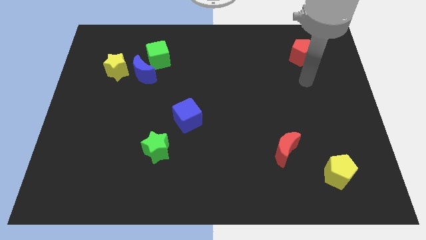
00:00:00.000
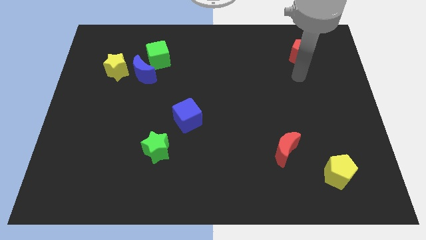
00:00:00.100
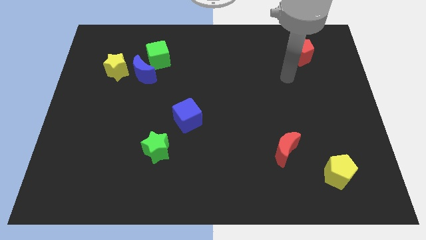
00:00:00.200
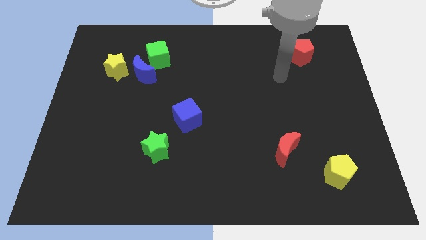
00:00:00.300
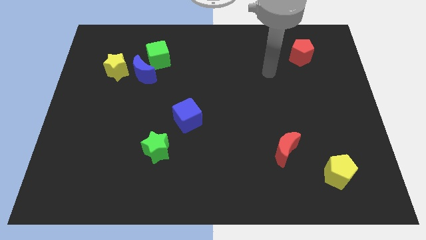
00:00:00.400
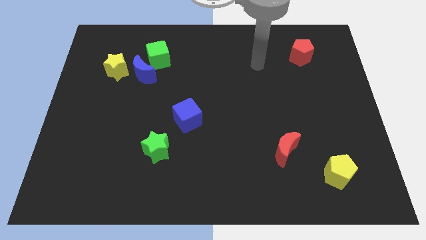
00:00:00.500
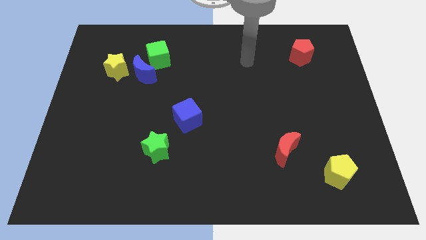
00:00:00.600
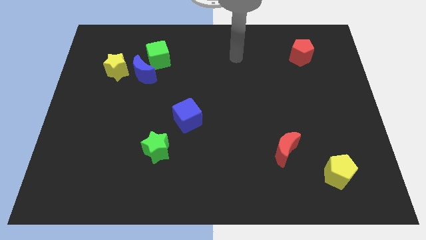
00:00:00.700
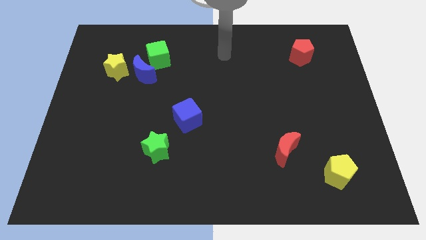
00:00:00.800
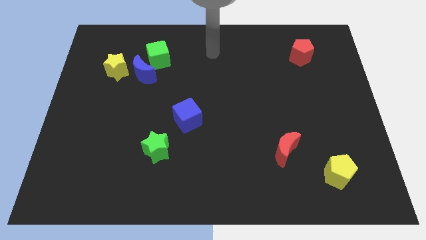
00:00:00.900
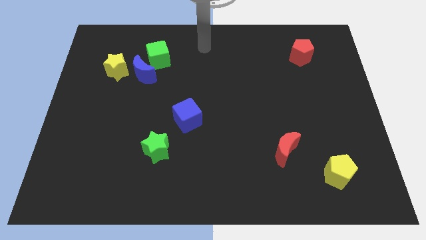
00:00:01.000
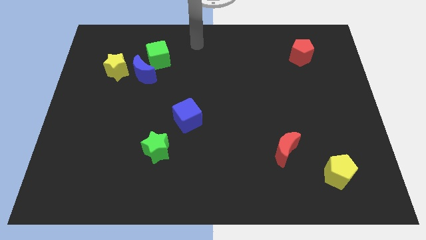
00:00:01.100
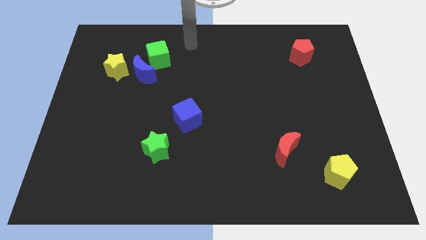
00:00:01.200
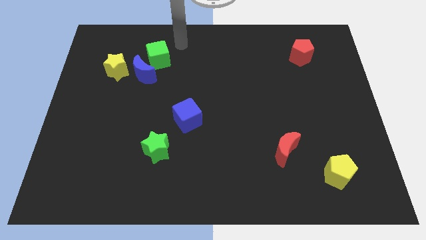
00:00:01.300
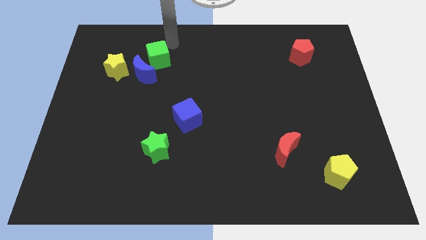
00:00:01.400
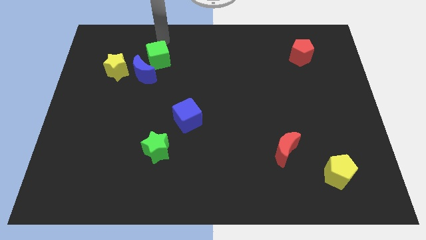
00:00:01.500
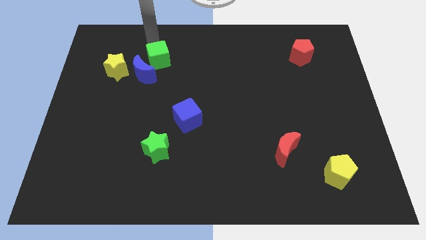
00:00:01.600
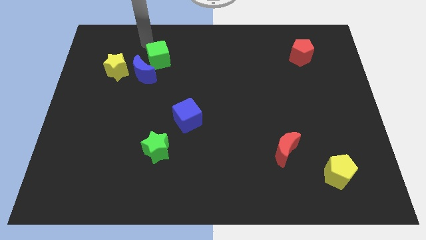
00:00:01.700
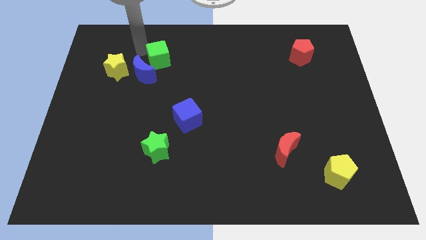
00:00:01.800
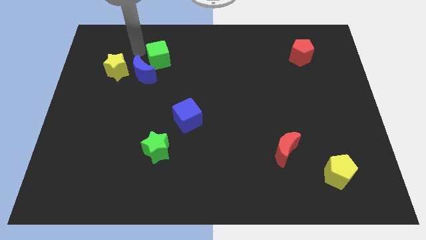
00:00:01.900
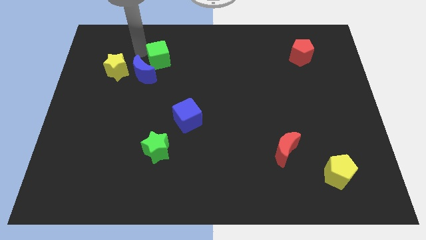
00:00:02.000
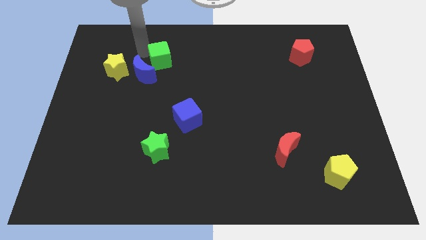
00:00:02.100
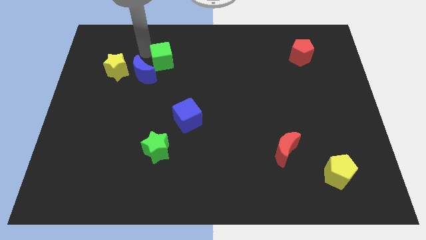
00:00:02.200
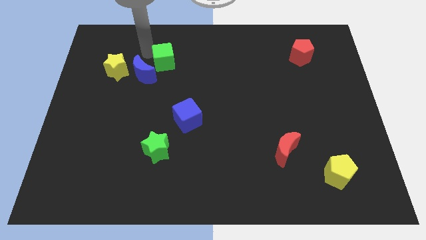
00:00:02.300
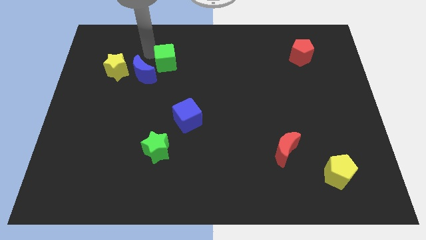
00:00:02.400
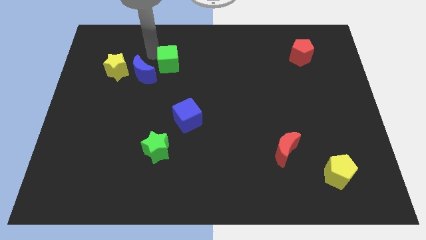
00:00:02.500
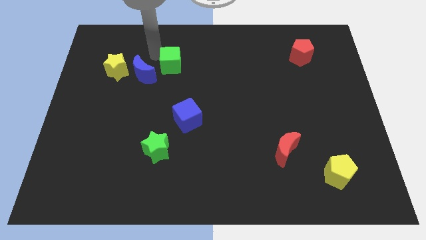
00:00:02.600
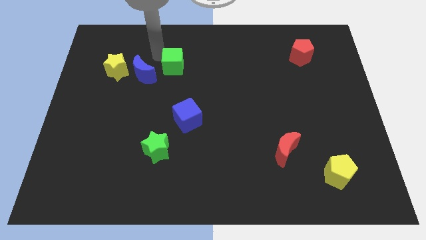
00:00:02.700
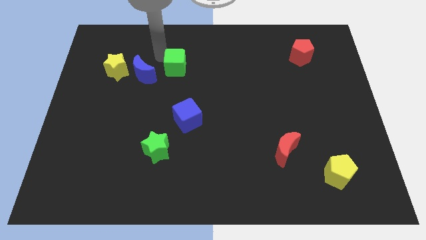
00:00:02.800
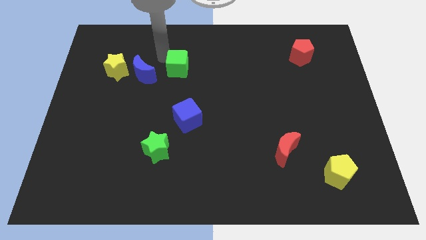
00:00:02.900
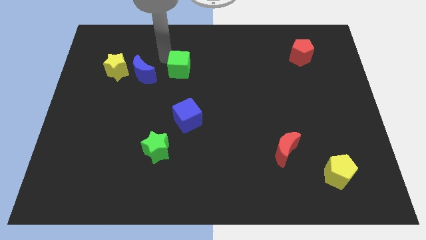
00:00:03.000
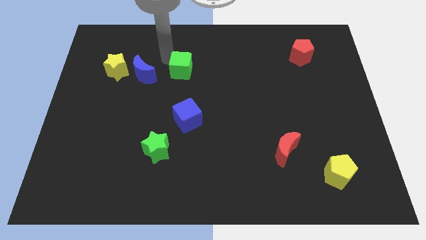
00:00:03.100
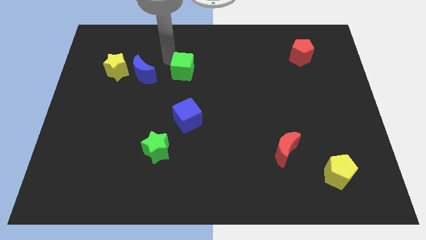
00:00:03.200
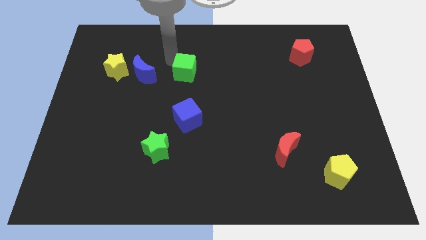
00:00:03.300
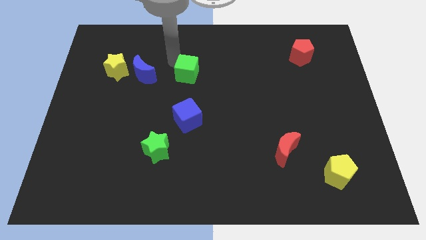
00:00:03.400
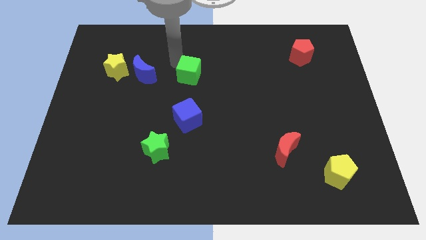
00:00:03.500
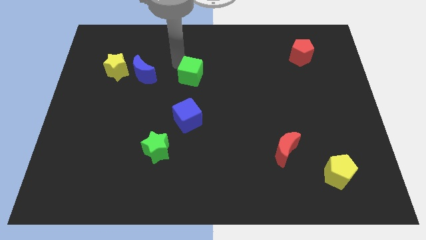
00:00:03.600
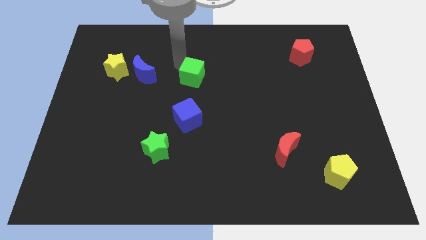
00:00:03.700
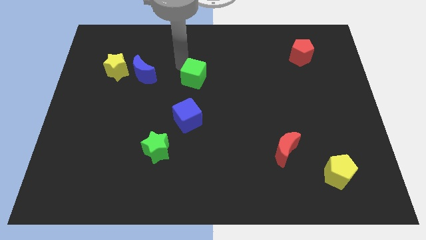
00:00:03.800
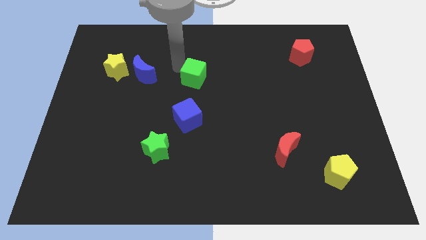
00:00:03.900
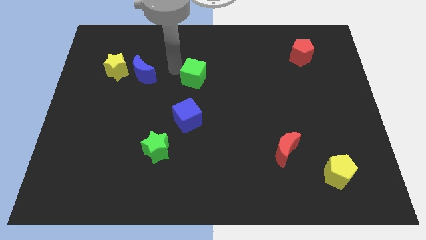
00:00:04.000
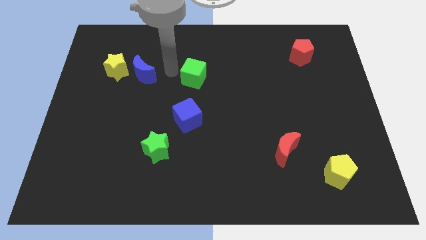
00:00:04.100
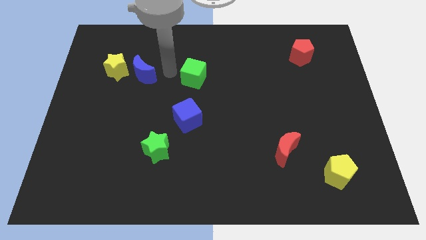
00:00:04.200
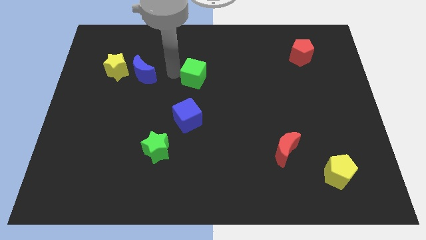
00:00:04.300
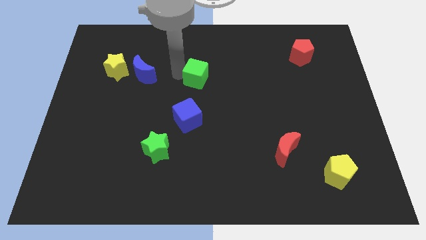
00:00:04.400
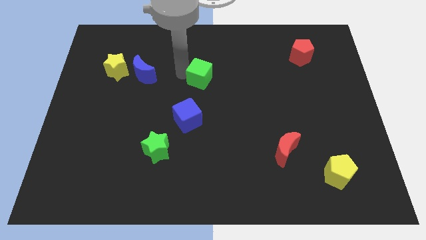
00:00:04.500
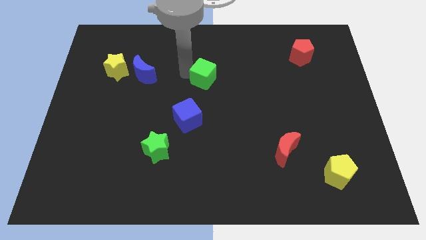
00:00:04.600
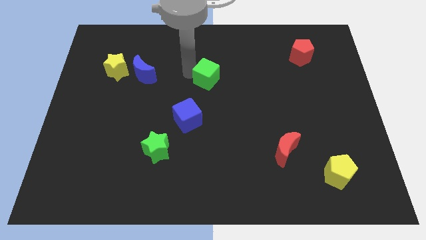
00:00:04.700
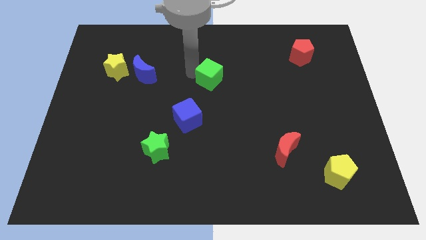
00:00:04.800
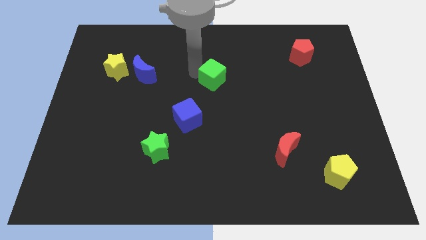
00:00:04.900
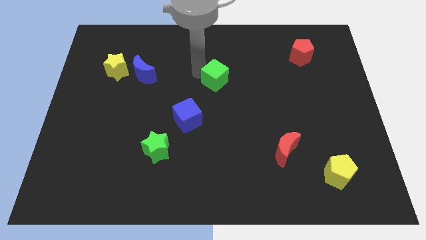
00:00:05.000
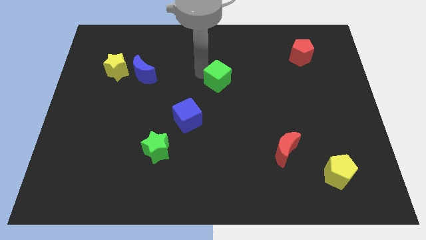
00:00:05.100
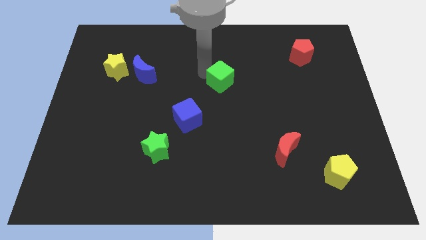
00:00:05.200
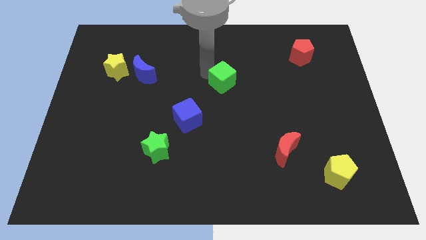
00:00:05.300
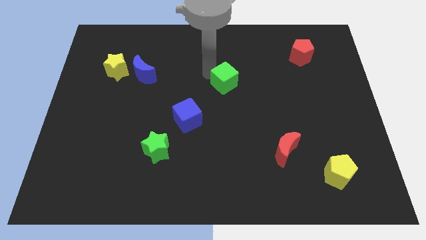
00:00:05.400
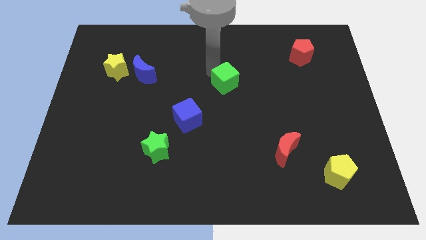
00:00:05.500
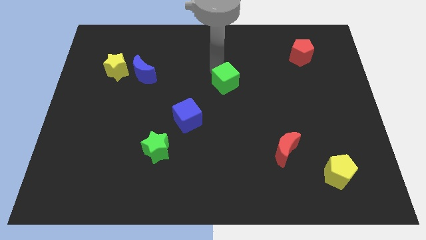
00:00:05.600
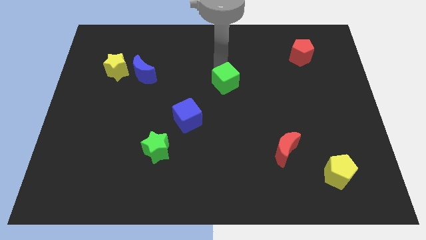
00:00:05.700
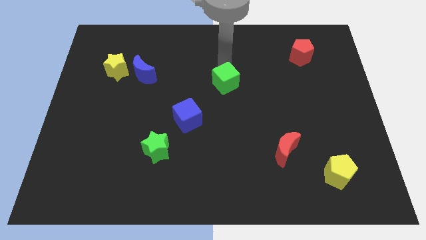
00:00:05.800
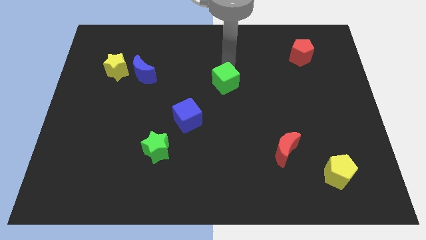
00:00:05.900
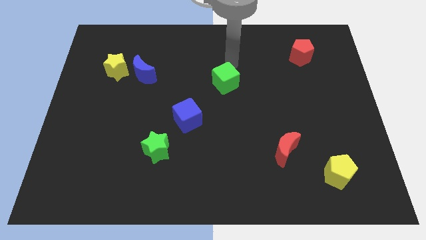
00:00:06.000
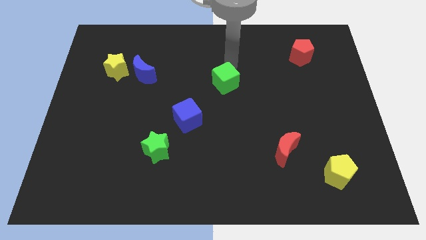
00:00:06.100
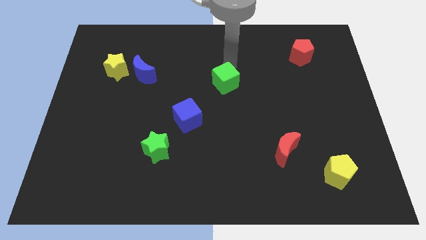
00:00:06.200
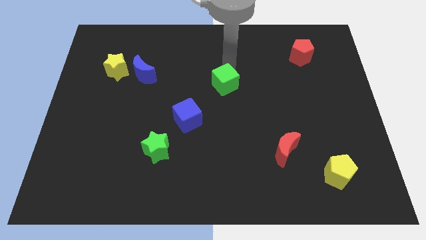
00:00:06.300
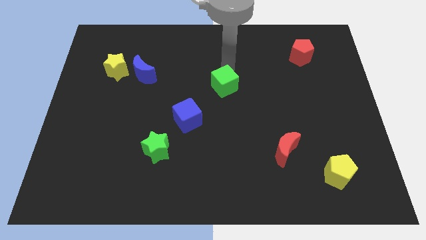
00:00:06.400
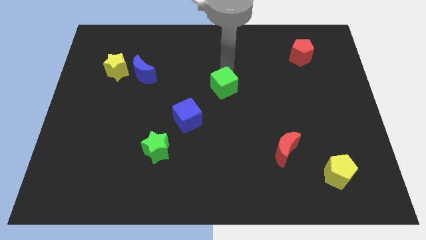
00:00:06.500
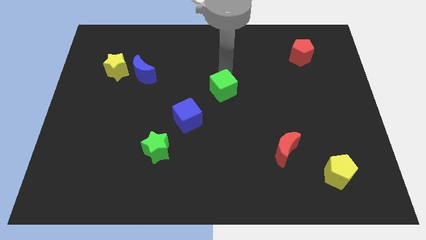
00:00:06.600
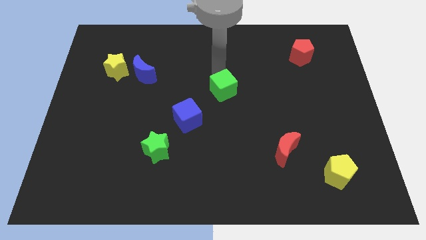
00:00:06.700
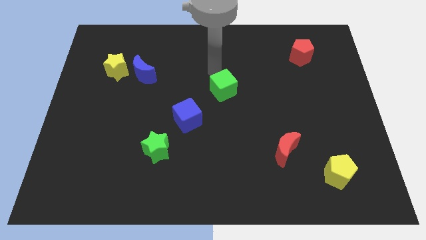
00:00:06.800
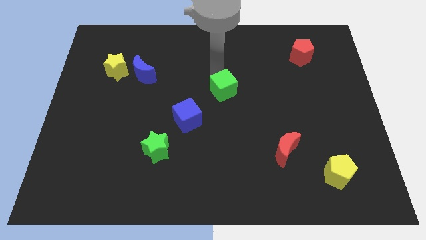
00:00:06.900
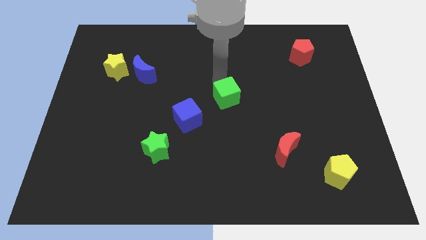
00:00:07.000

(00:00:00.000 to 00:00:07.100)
move the green cube downwards and right diagonally

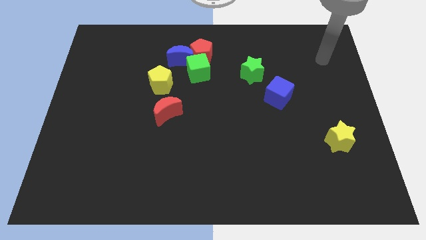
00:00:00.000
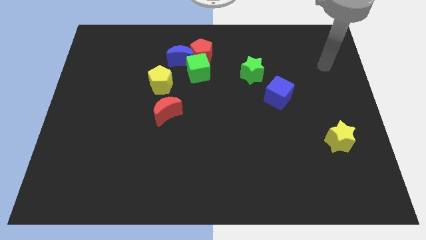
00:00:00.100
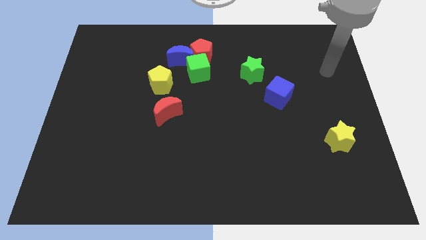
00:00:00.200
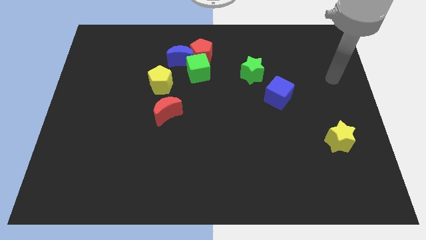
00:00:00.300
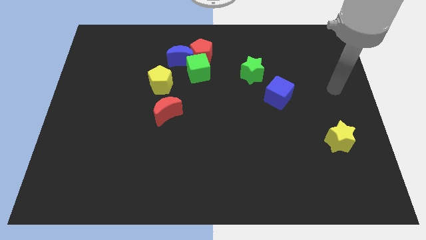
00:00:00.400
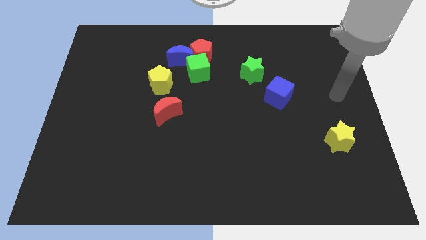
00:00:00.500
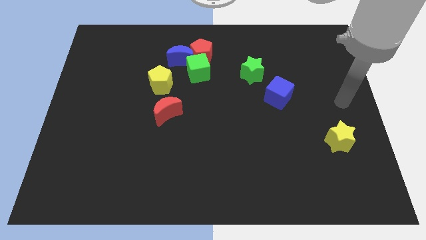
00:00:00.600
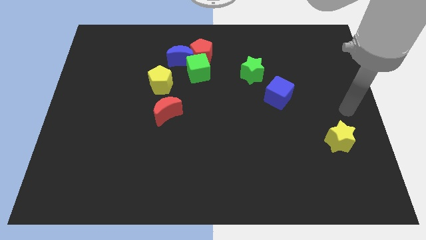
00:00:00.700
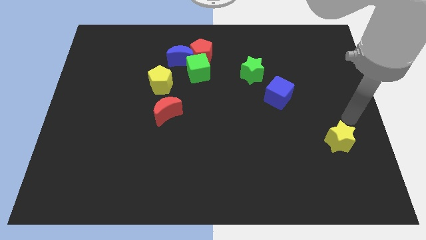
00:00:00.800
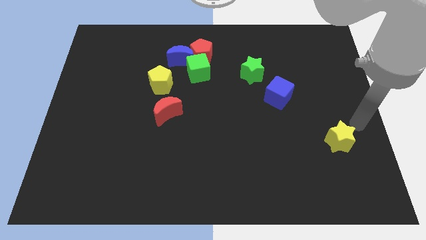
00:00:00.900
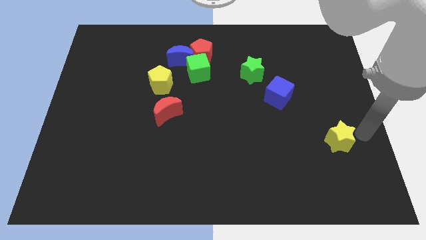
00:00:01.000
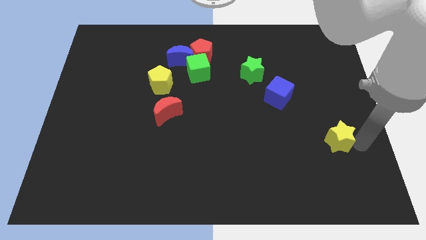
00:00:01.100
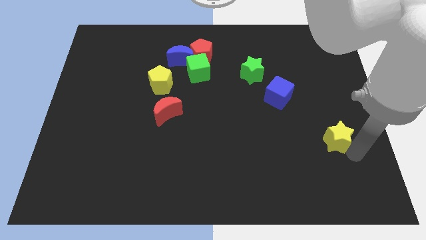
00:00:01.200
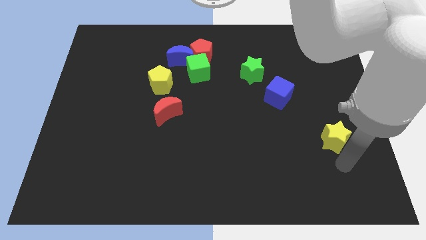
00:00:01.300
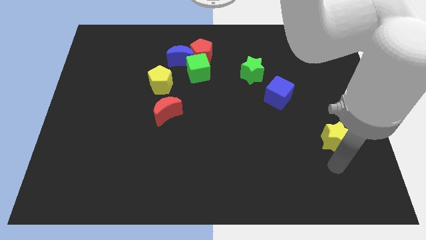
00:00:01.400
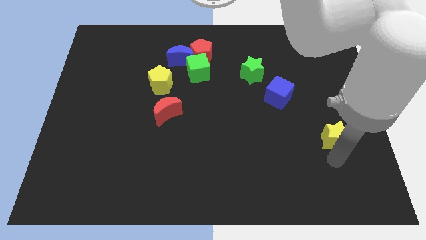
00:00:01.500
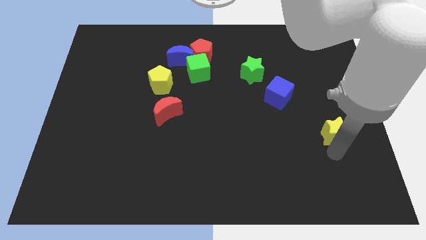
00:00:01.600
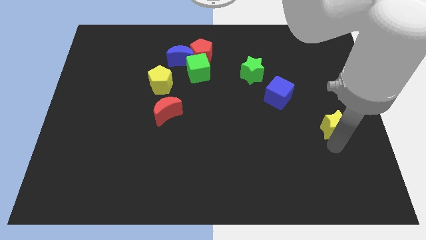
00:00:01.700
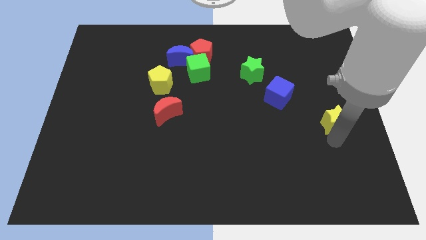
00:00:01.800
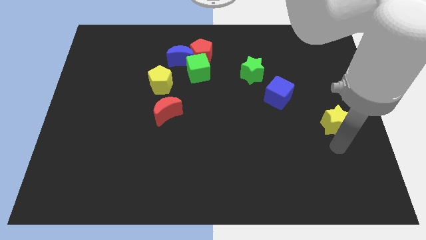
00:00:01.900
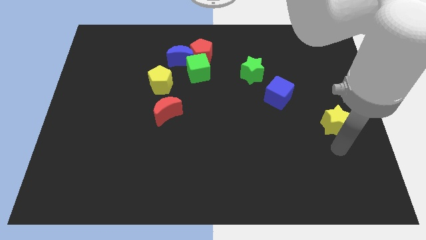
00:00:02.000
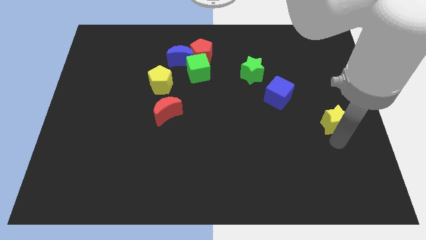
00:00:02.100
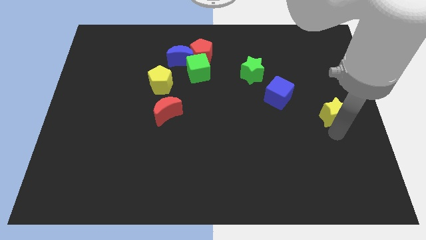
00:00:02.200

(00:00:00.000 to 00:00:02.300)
push the yellow star slightly upwards
